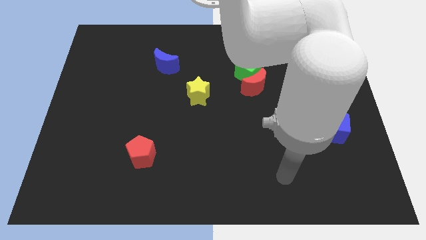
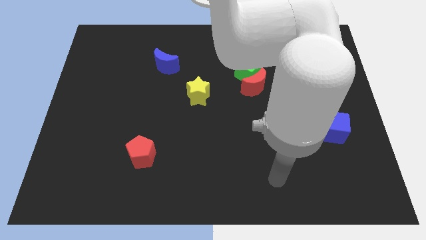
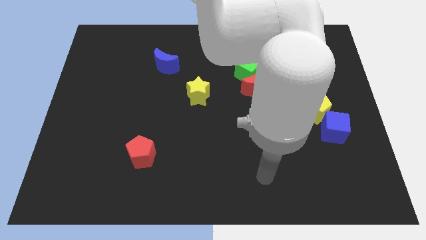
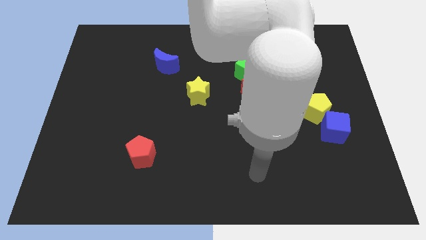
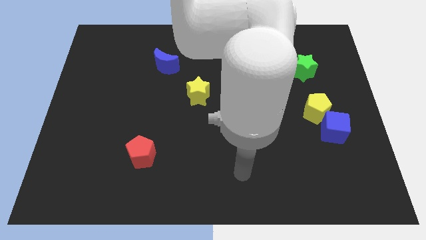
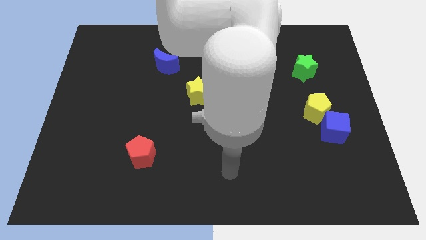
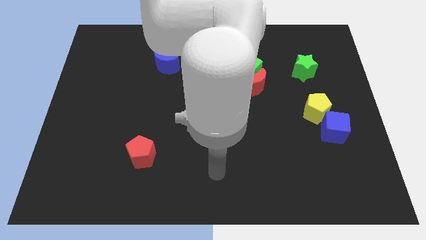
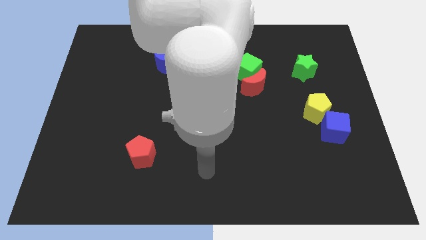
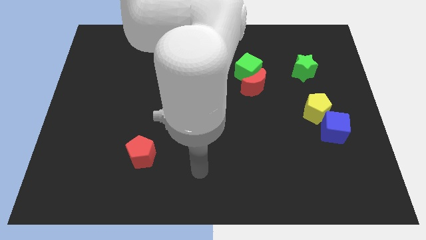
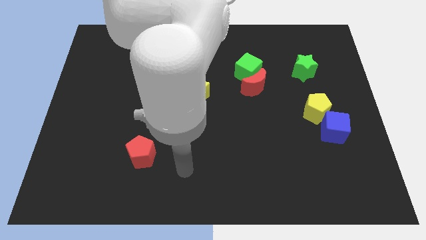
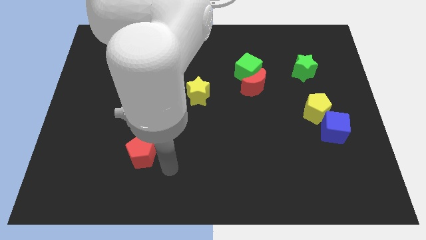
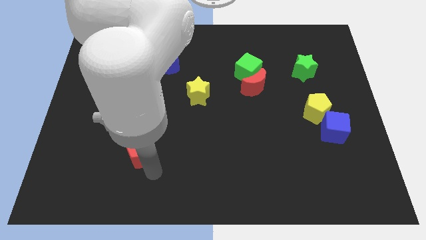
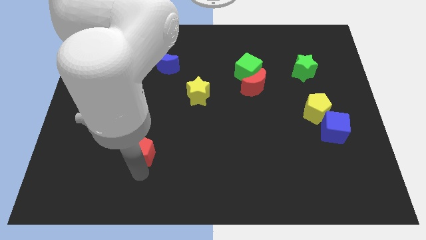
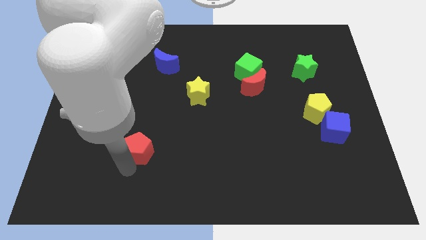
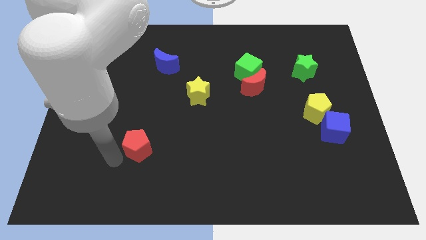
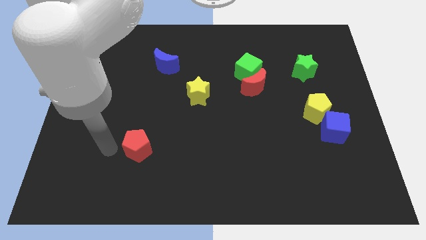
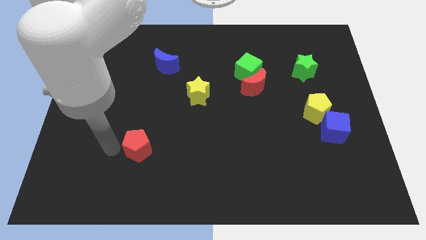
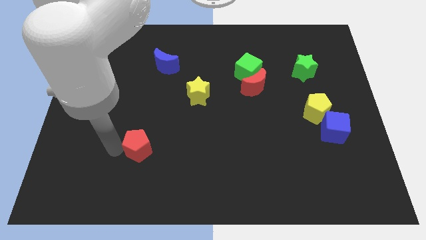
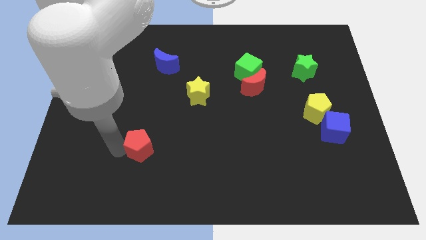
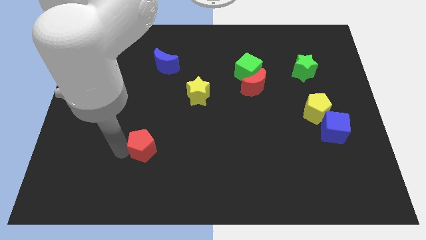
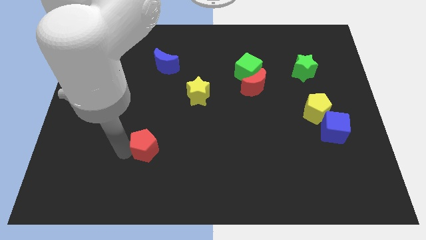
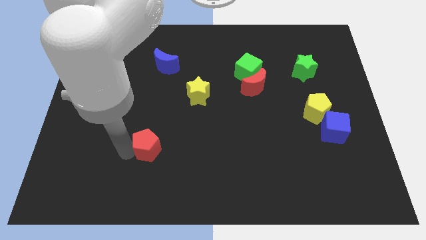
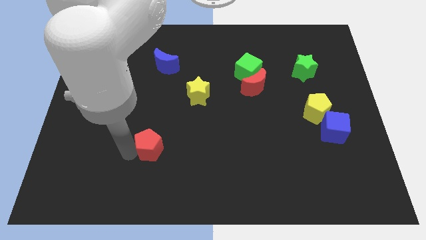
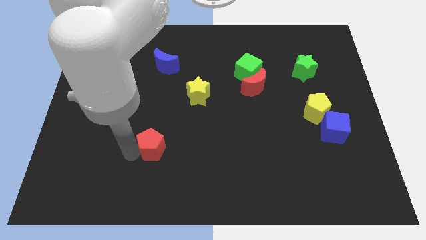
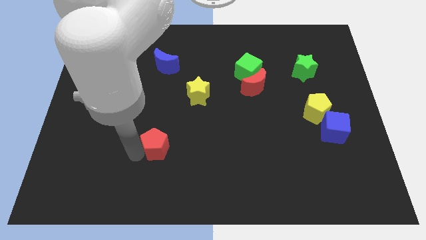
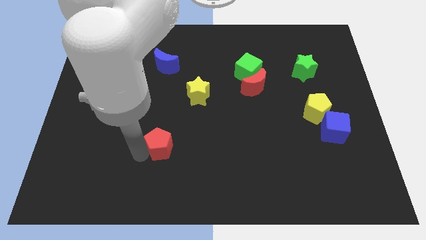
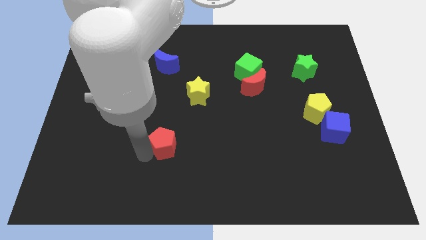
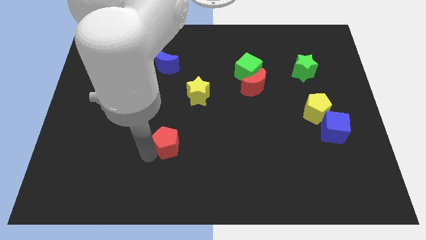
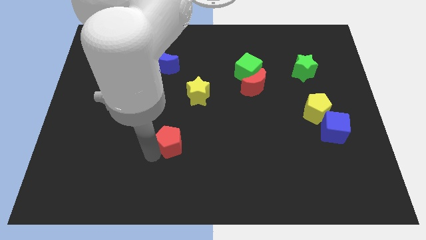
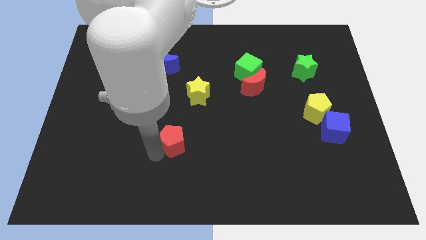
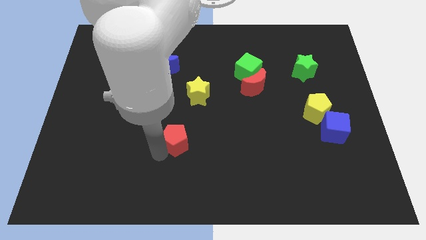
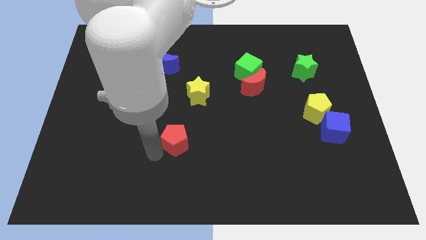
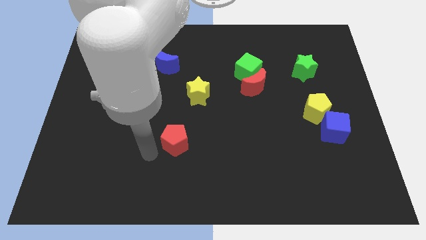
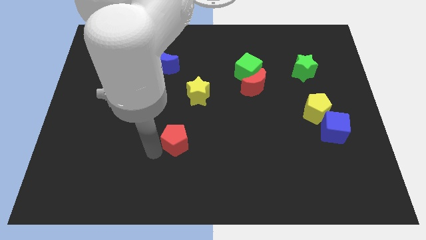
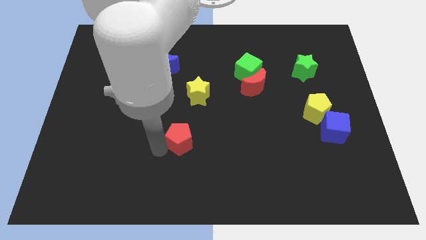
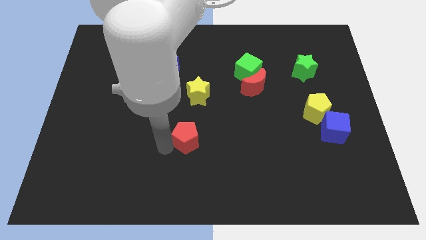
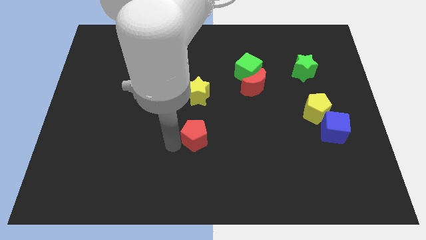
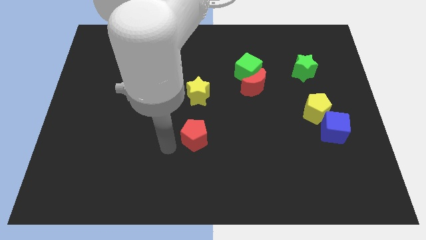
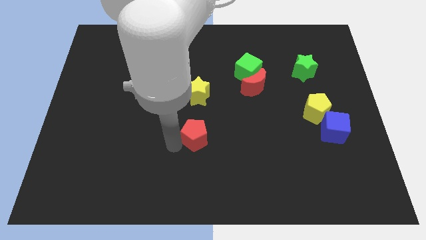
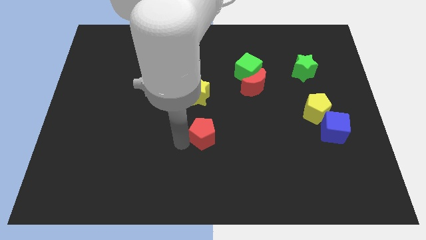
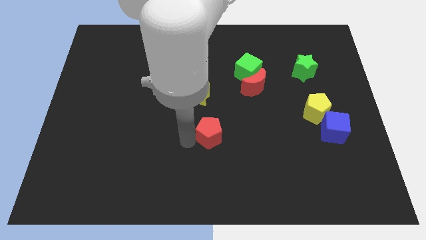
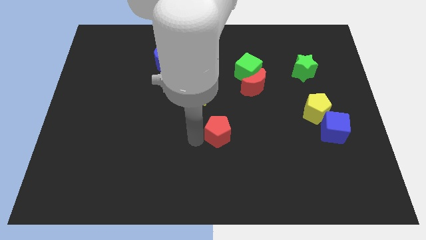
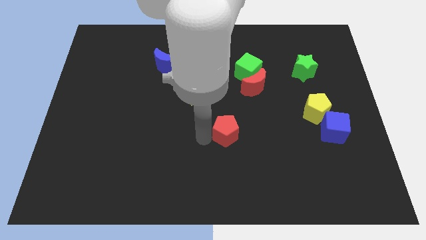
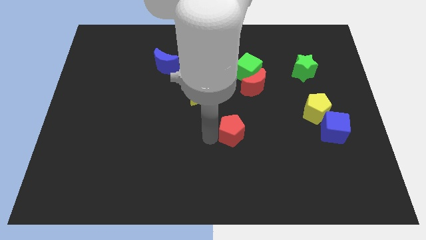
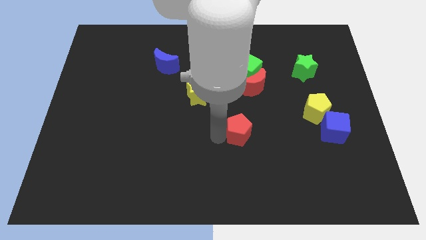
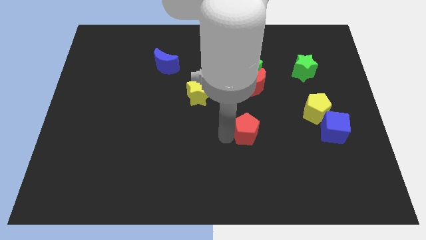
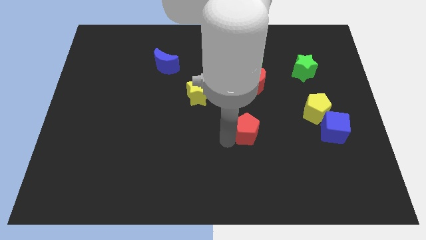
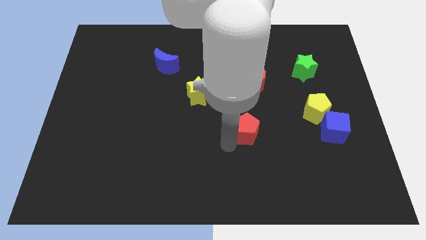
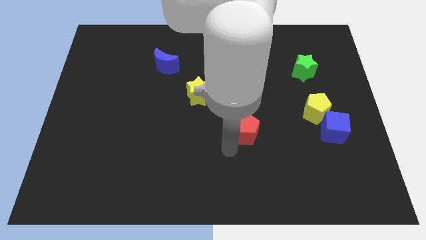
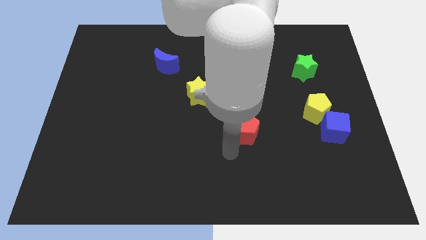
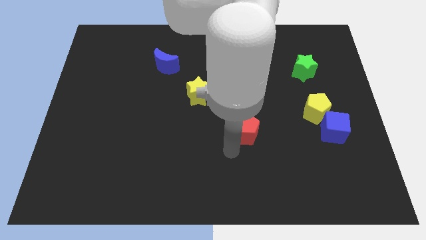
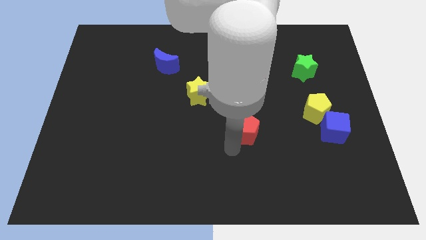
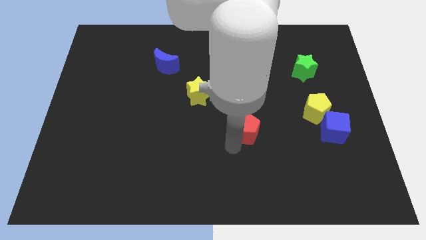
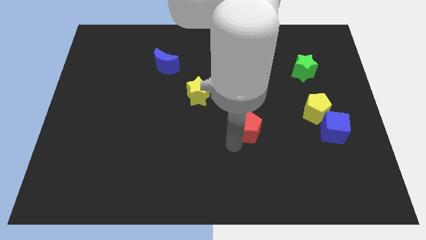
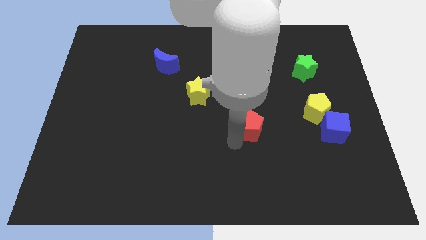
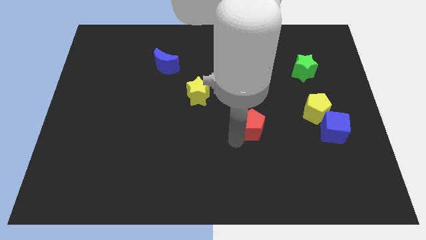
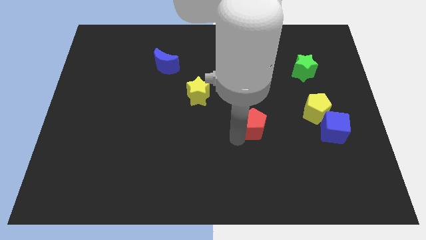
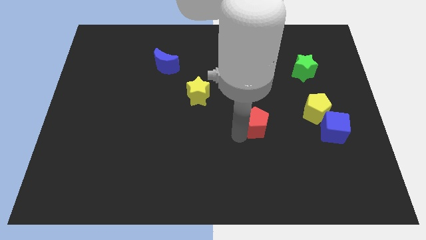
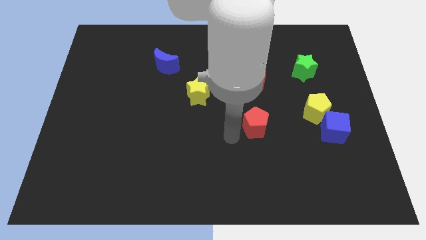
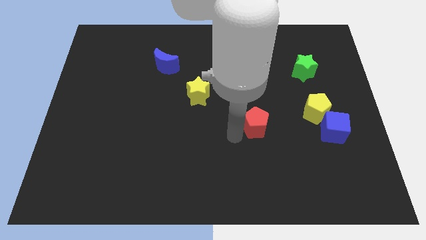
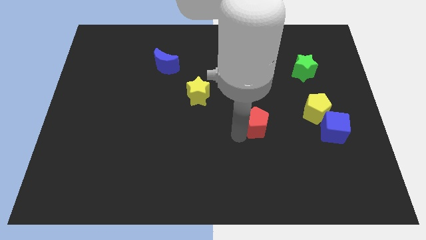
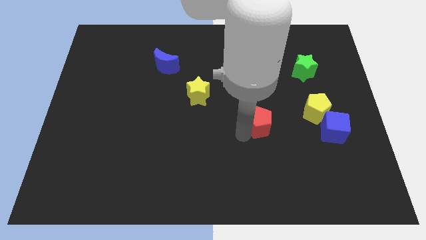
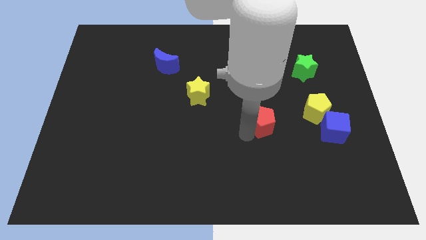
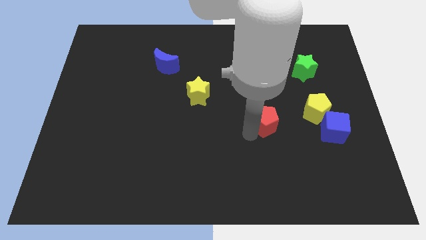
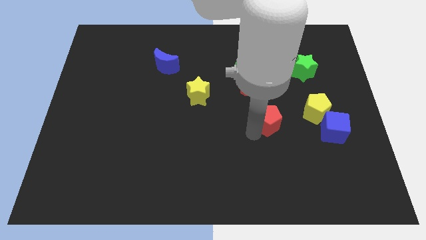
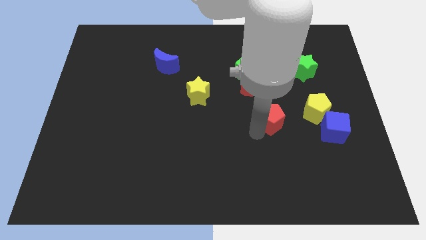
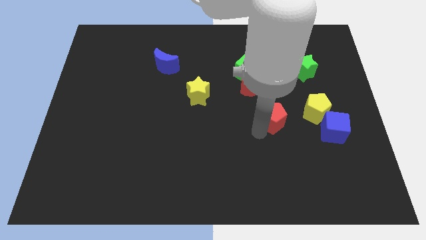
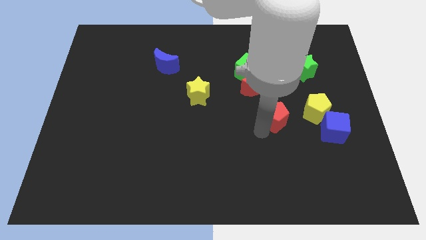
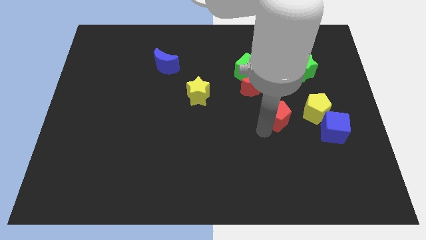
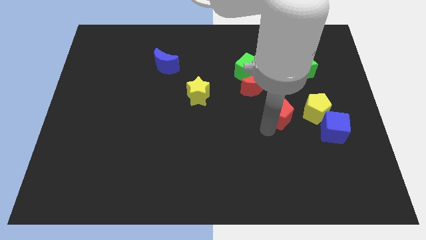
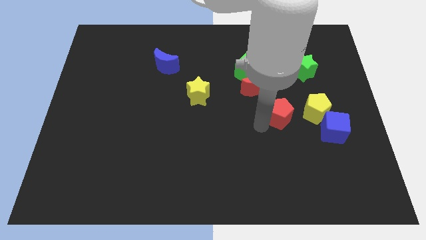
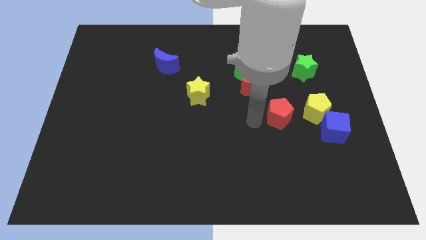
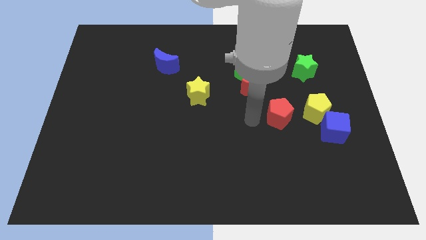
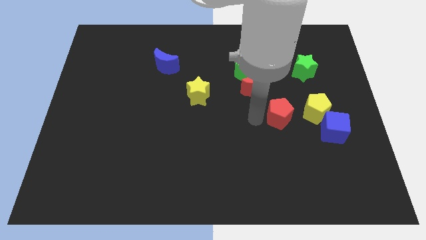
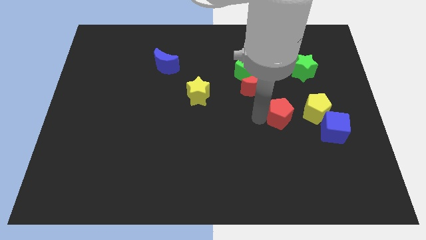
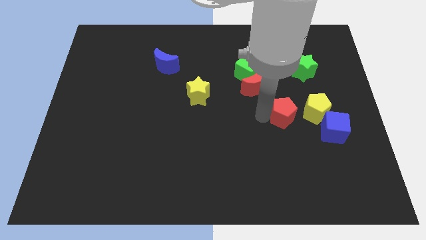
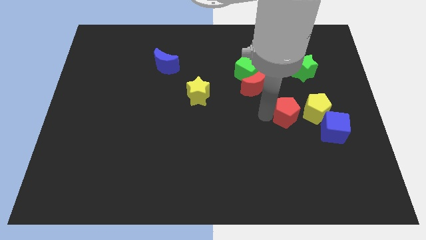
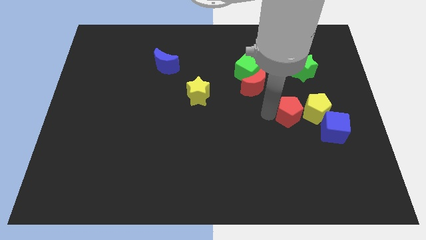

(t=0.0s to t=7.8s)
move the red pentagon close to the yellow pentagon
